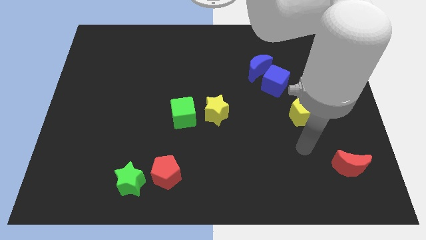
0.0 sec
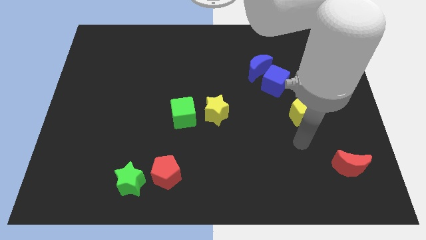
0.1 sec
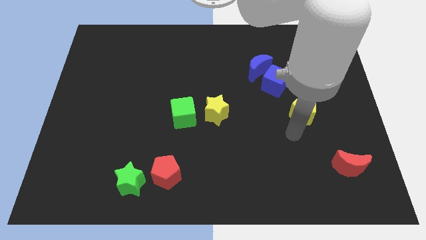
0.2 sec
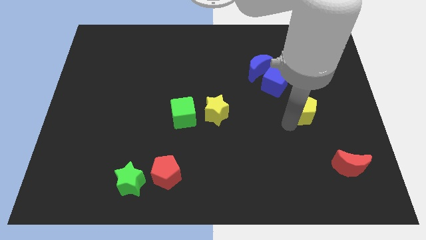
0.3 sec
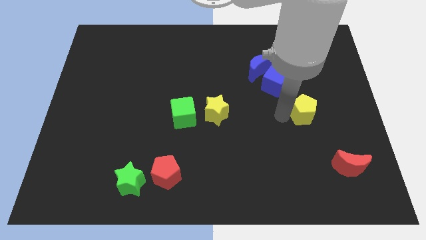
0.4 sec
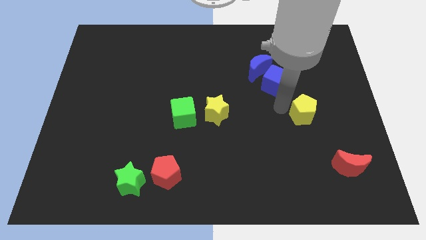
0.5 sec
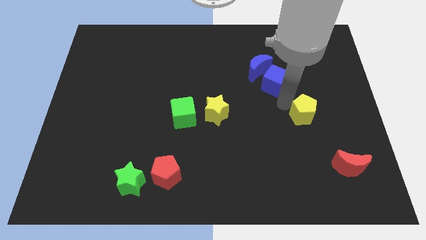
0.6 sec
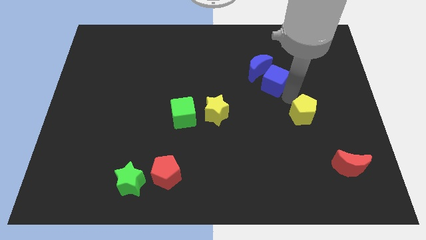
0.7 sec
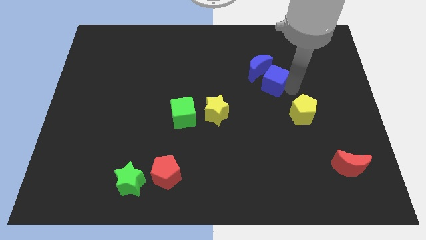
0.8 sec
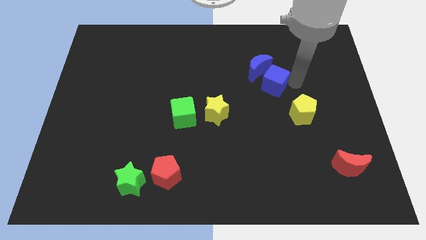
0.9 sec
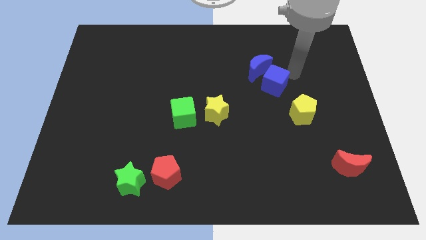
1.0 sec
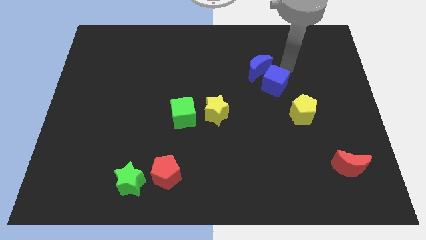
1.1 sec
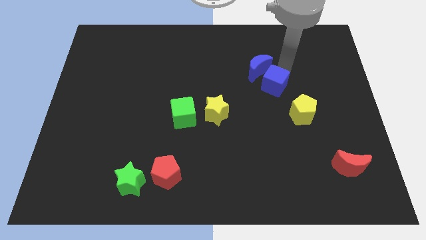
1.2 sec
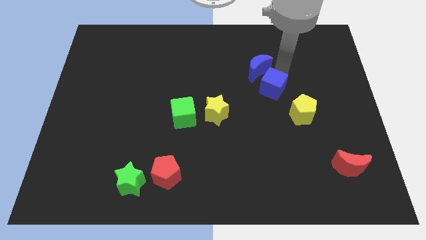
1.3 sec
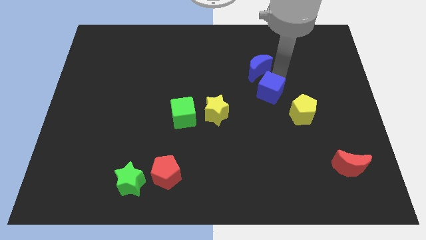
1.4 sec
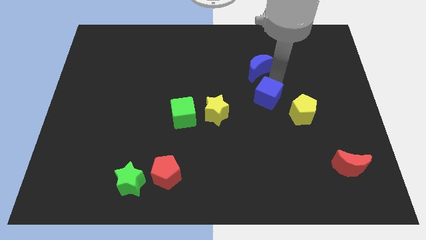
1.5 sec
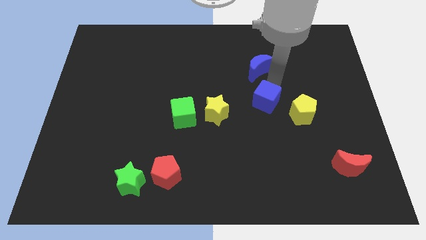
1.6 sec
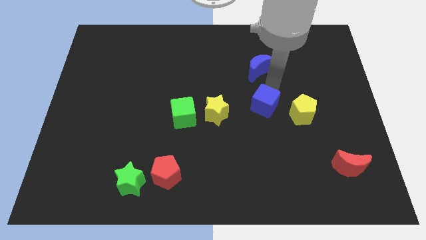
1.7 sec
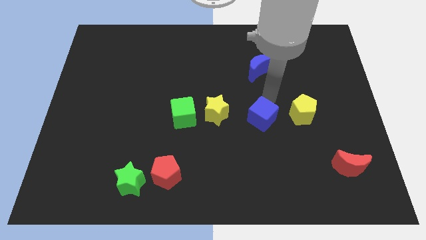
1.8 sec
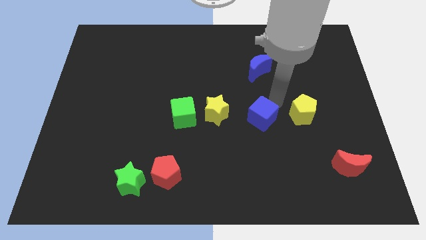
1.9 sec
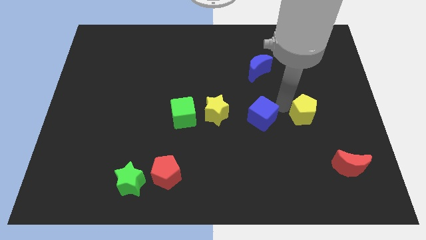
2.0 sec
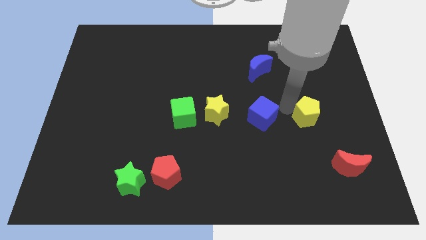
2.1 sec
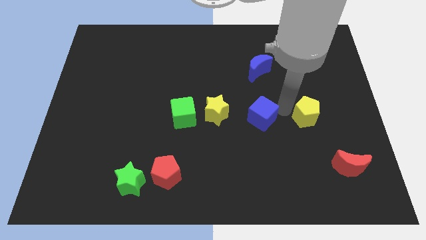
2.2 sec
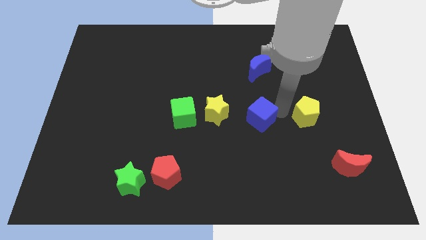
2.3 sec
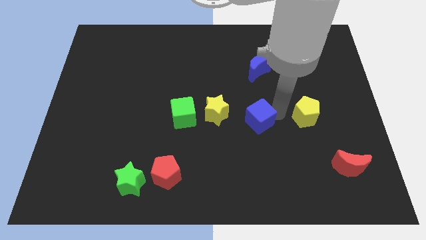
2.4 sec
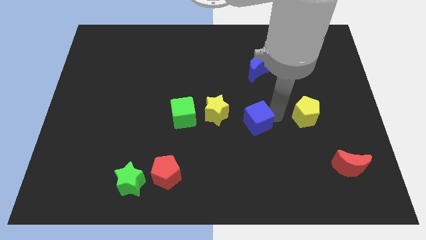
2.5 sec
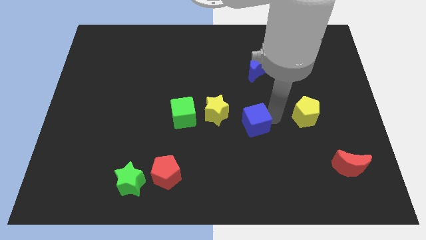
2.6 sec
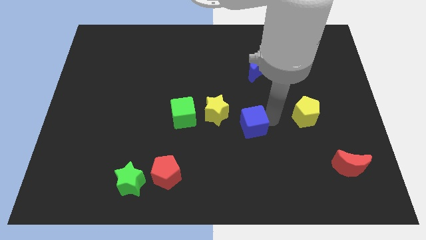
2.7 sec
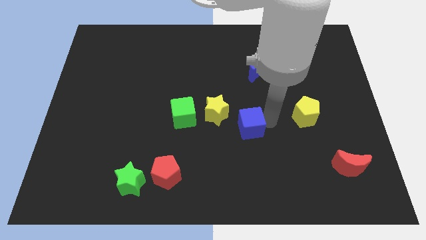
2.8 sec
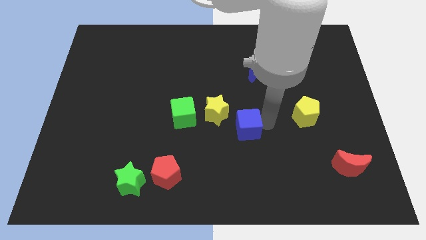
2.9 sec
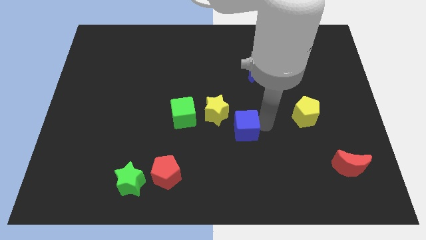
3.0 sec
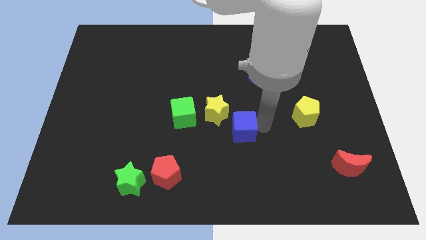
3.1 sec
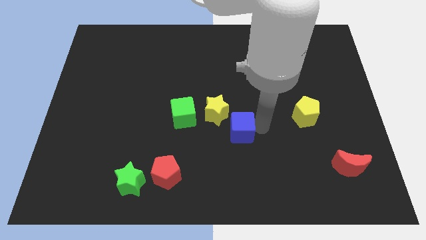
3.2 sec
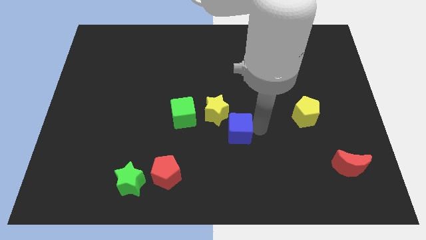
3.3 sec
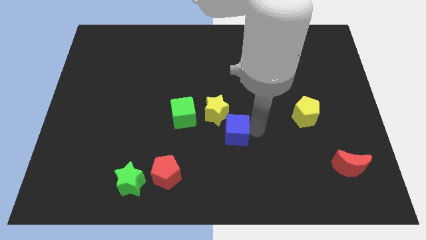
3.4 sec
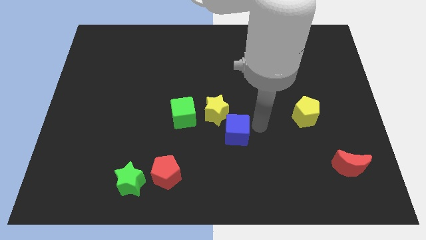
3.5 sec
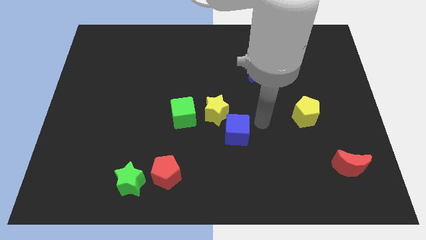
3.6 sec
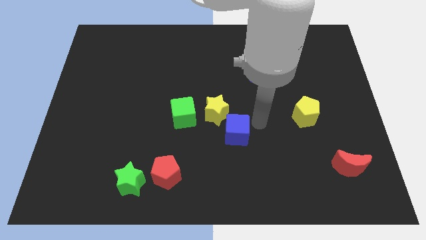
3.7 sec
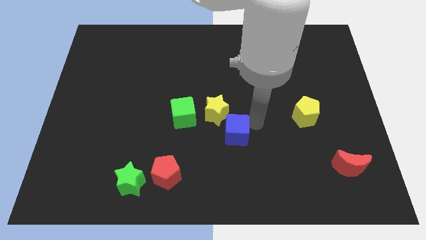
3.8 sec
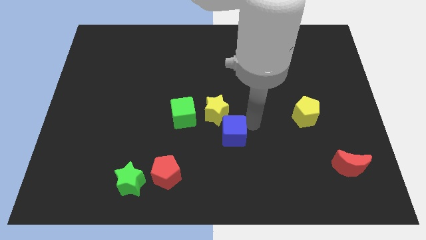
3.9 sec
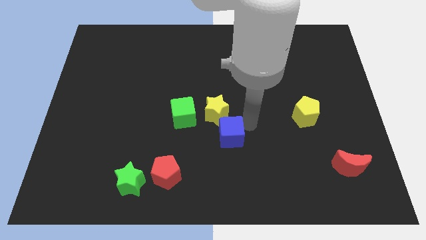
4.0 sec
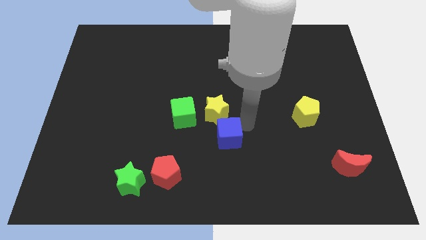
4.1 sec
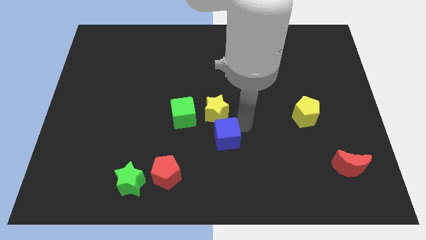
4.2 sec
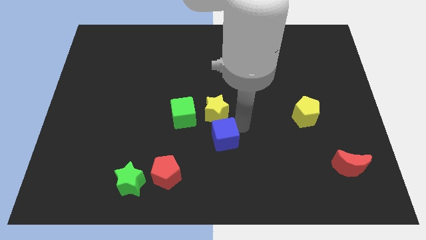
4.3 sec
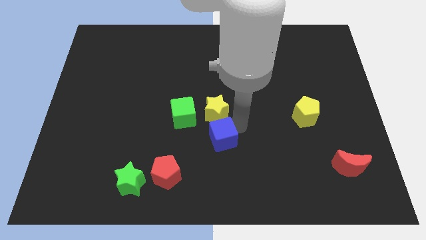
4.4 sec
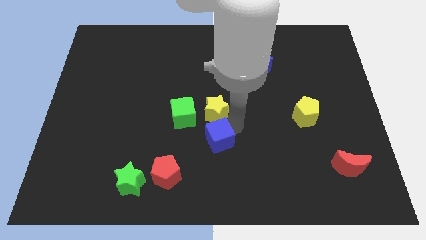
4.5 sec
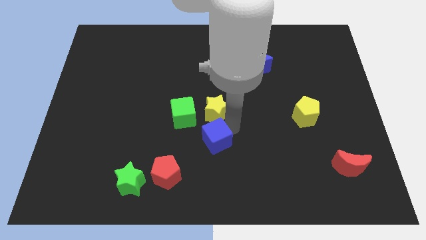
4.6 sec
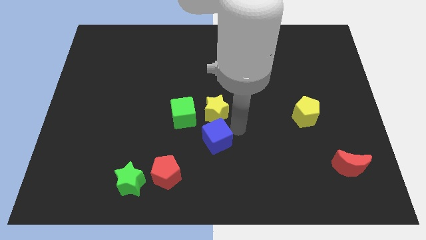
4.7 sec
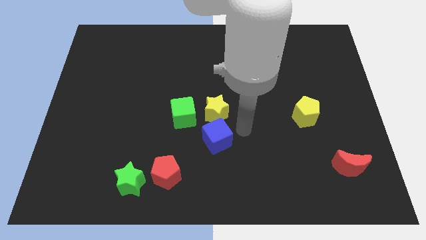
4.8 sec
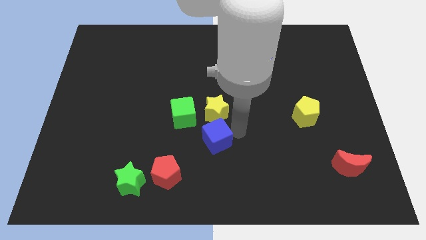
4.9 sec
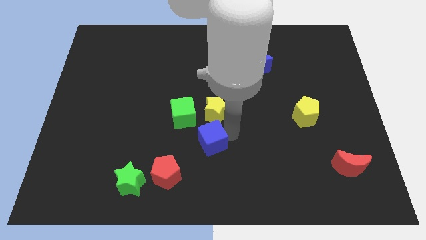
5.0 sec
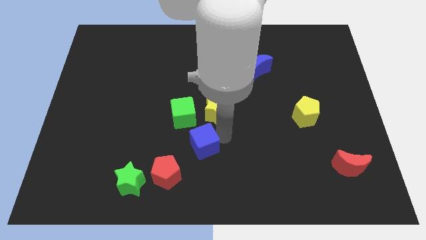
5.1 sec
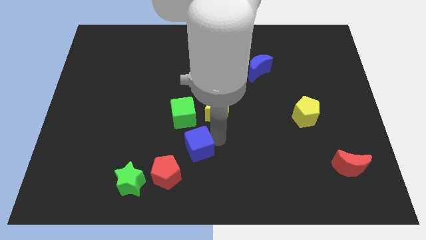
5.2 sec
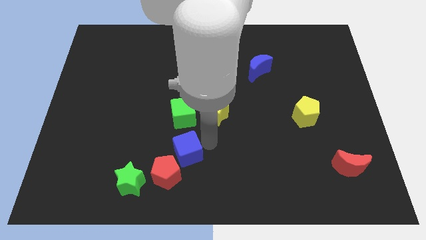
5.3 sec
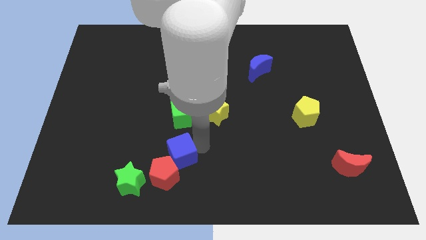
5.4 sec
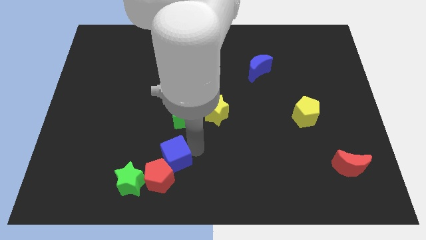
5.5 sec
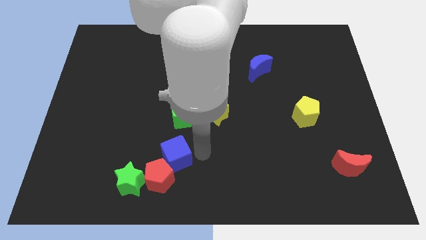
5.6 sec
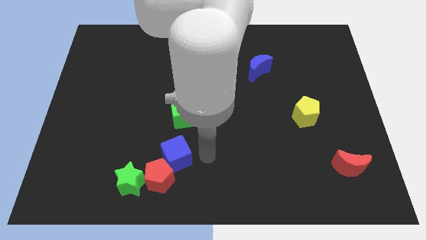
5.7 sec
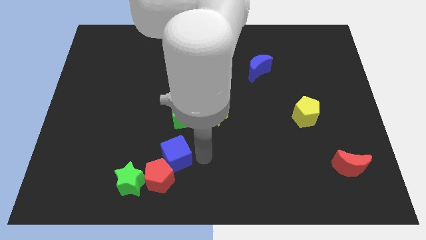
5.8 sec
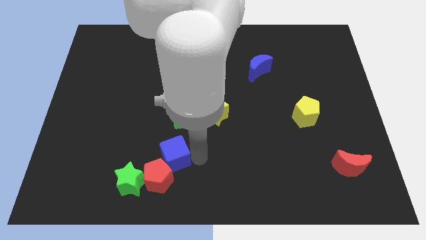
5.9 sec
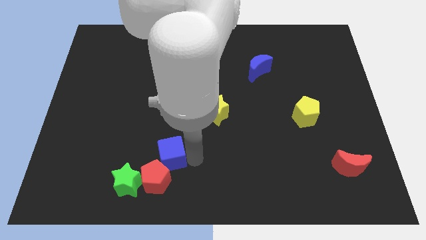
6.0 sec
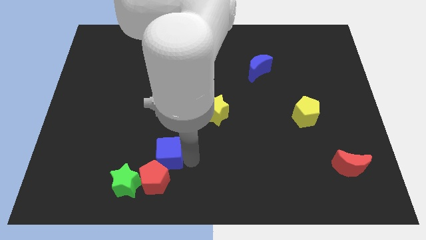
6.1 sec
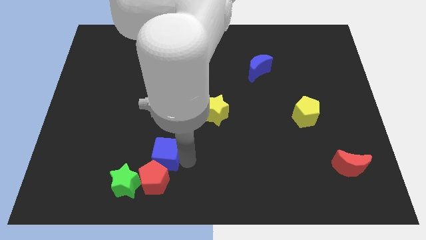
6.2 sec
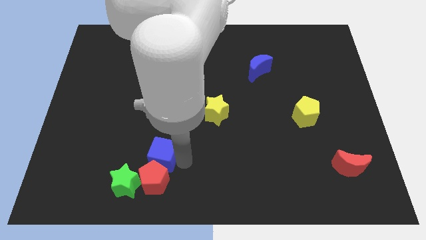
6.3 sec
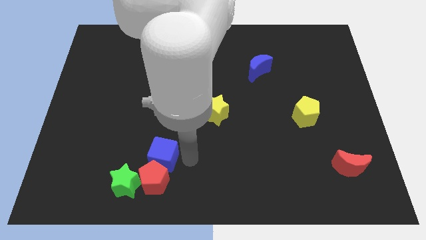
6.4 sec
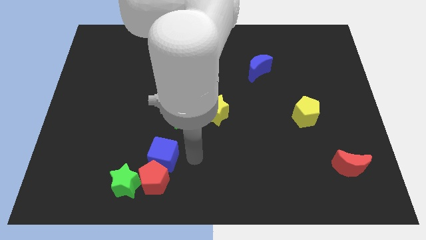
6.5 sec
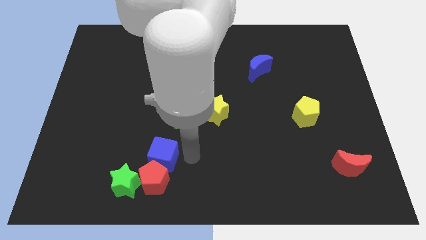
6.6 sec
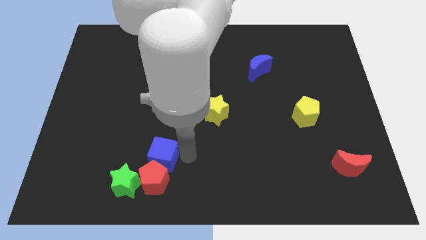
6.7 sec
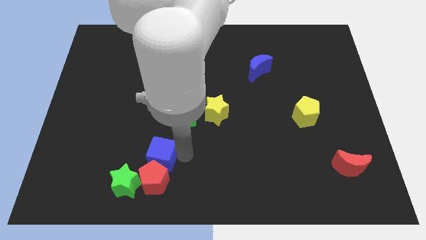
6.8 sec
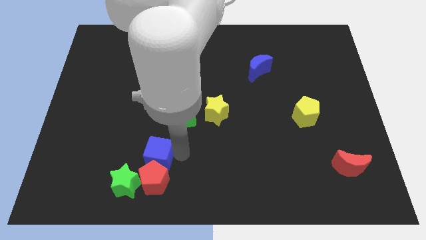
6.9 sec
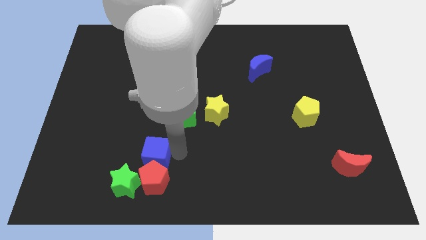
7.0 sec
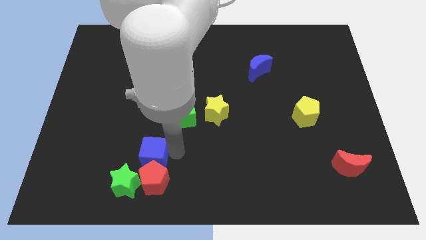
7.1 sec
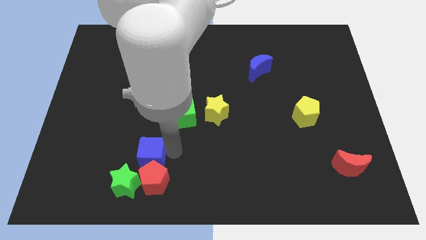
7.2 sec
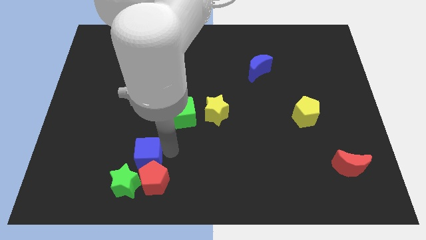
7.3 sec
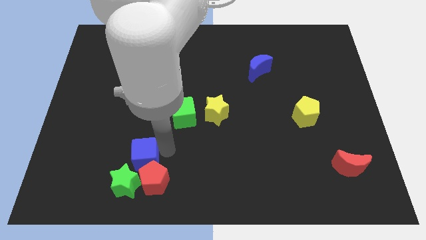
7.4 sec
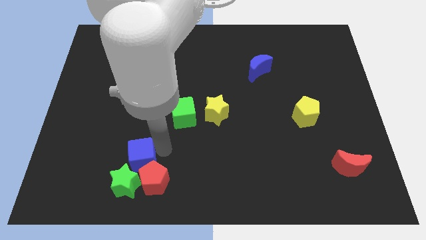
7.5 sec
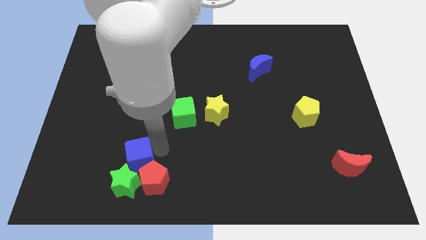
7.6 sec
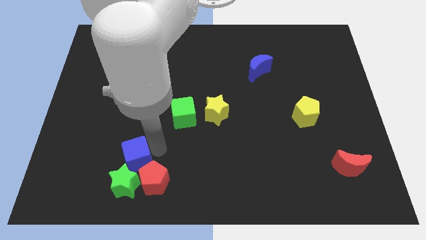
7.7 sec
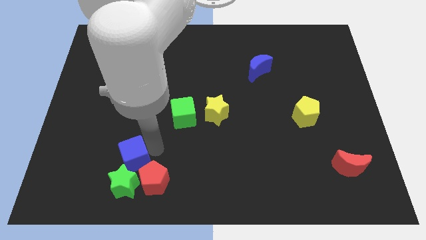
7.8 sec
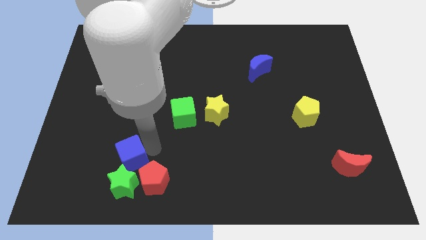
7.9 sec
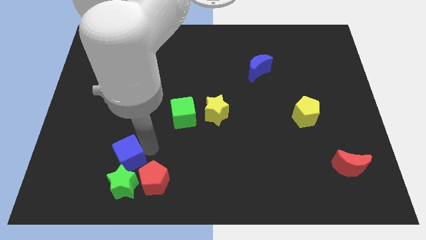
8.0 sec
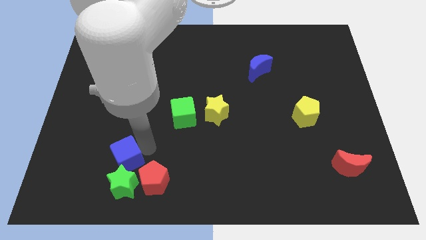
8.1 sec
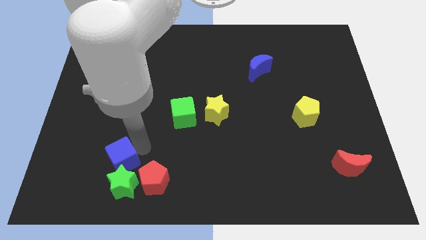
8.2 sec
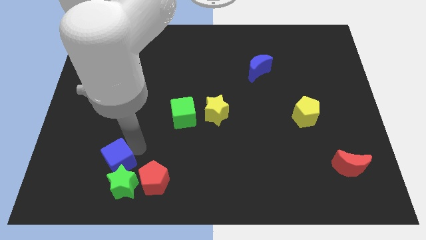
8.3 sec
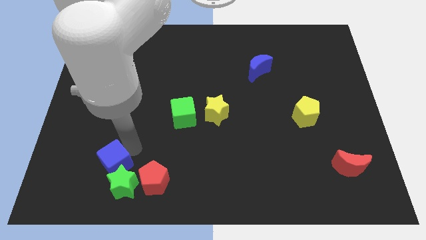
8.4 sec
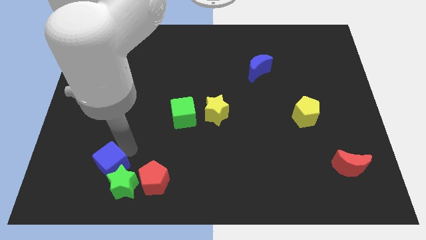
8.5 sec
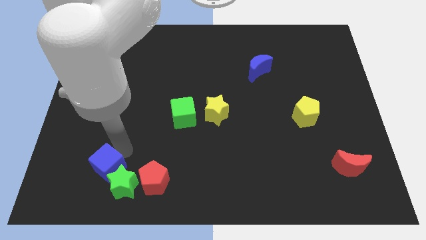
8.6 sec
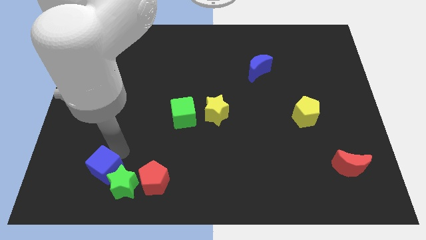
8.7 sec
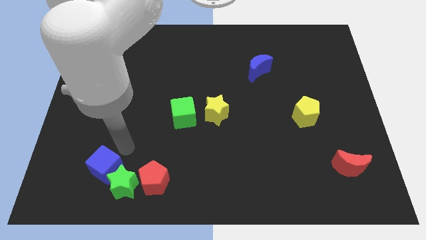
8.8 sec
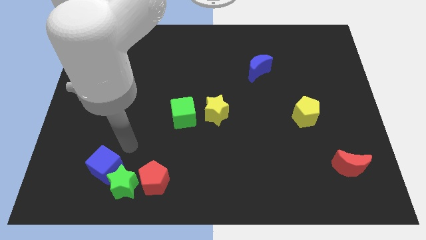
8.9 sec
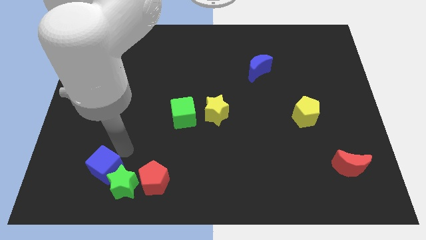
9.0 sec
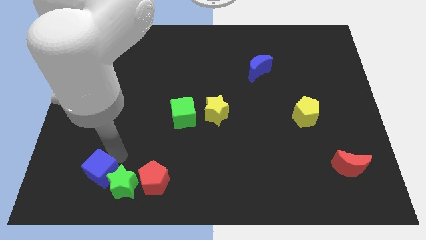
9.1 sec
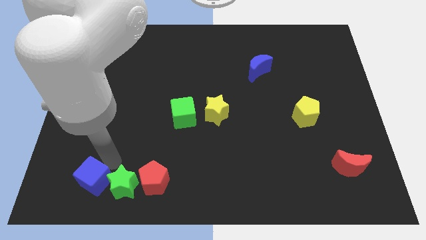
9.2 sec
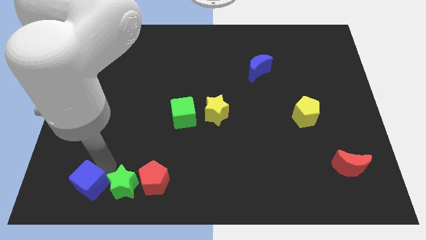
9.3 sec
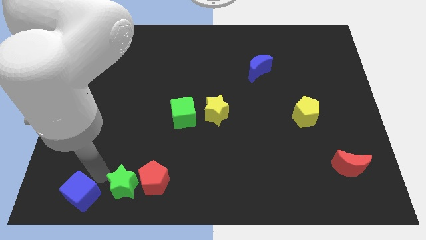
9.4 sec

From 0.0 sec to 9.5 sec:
move the blue cube to the bottom left of the board
